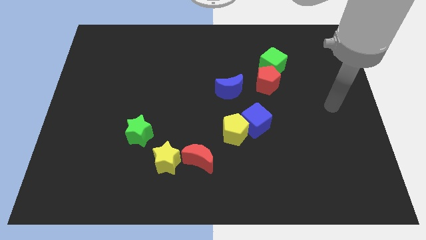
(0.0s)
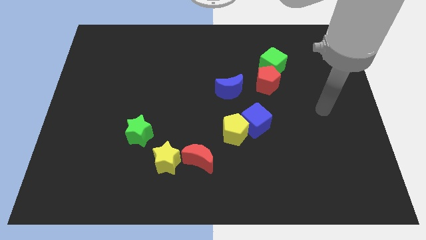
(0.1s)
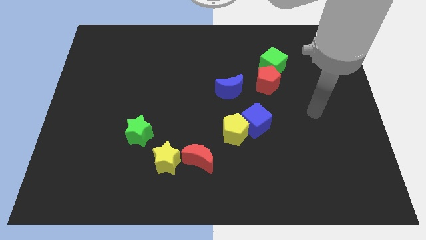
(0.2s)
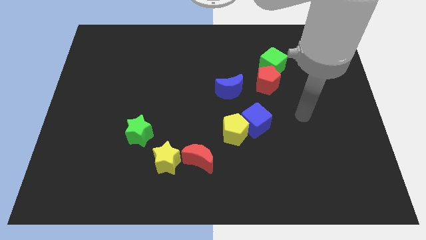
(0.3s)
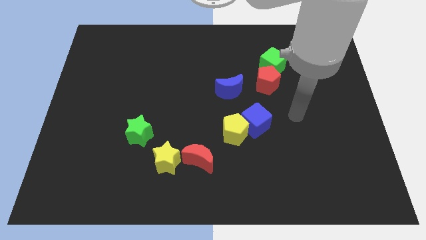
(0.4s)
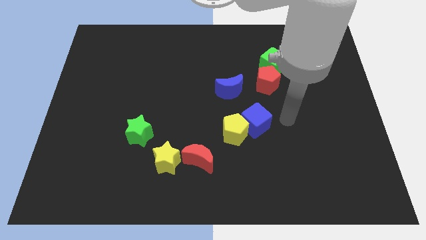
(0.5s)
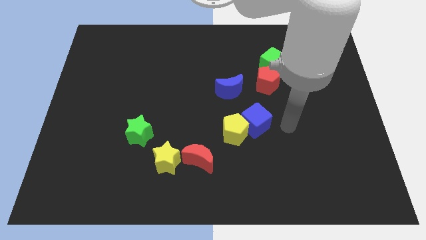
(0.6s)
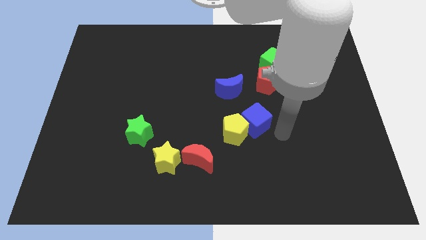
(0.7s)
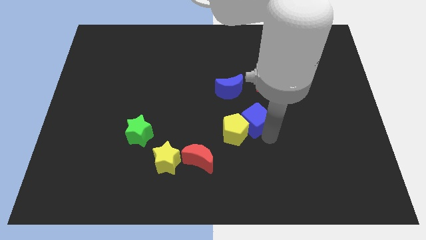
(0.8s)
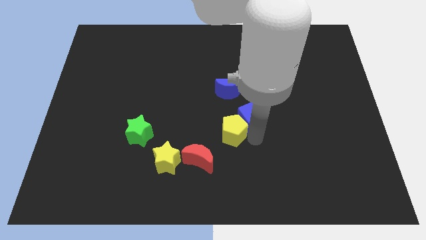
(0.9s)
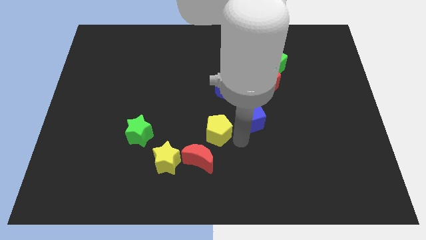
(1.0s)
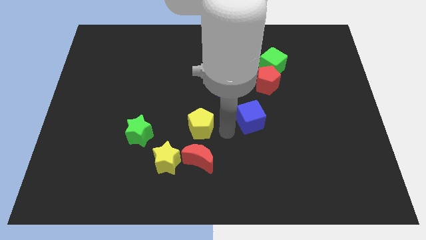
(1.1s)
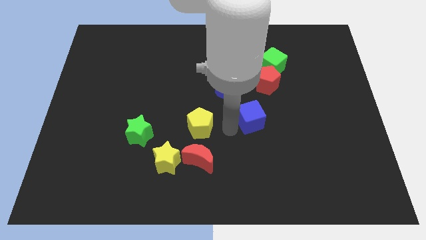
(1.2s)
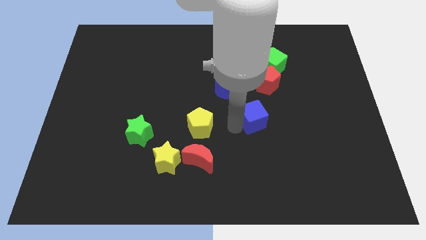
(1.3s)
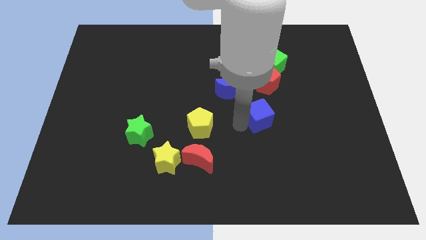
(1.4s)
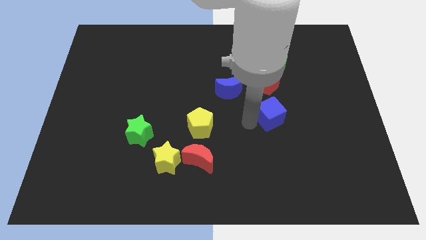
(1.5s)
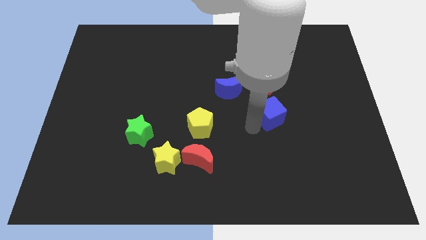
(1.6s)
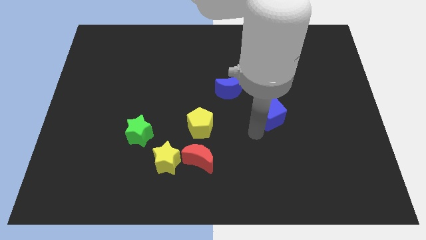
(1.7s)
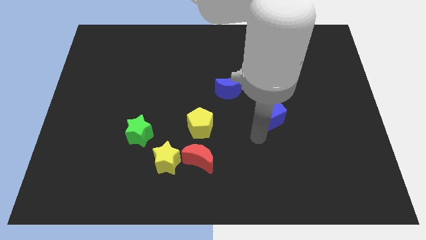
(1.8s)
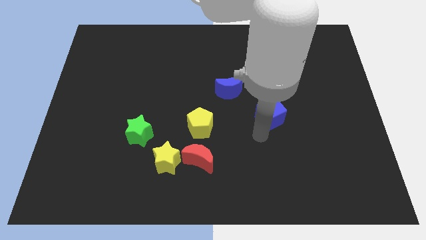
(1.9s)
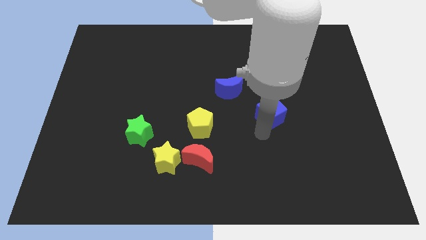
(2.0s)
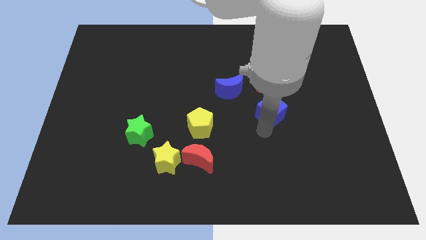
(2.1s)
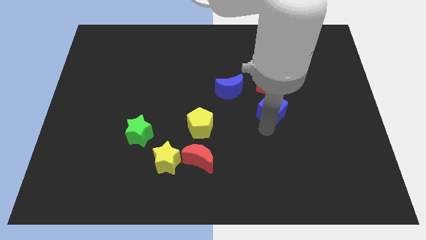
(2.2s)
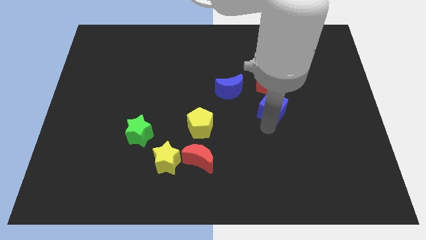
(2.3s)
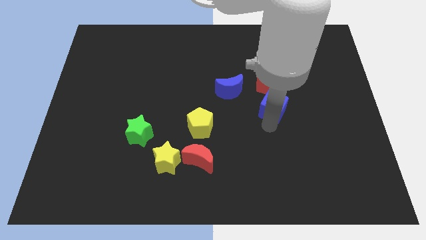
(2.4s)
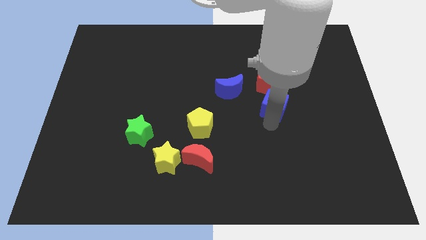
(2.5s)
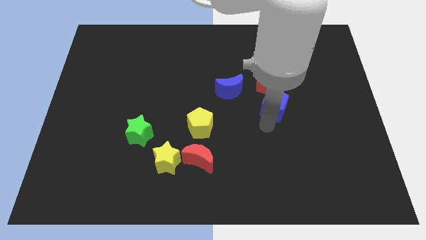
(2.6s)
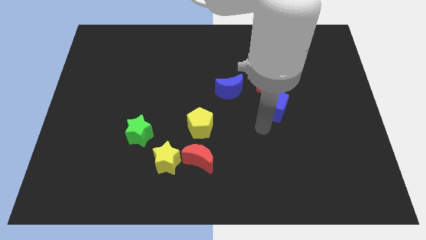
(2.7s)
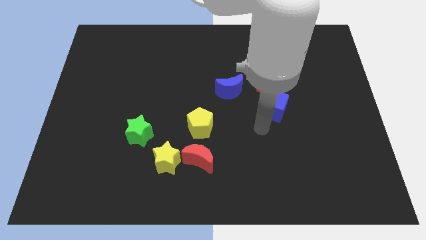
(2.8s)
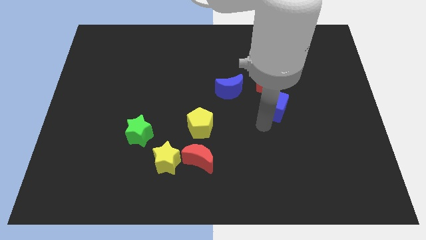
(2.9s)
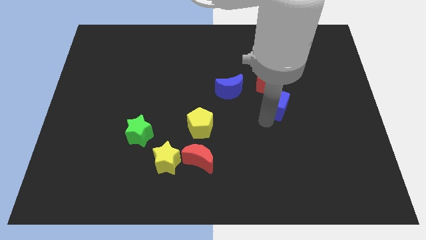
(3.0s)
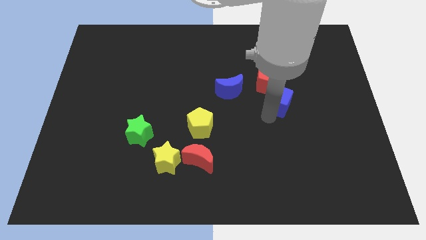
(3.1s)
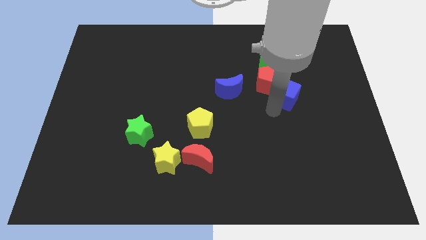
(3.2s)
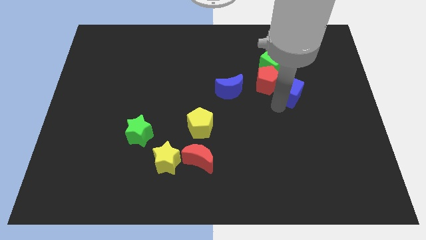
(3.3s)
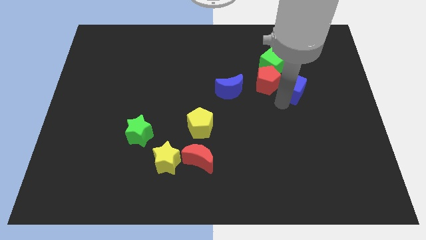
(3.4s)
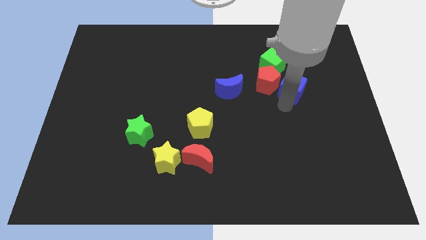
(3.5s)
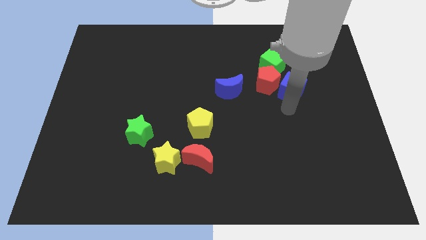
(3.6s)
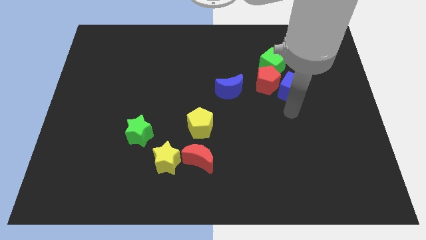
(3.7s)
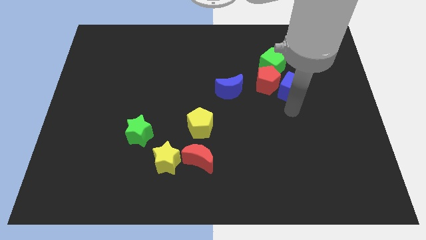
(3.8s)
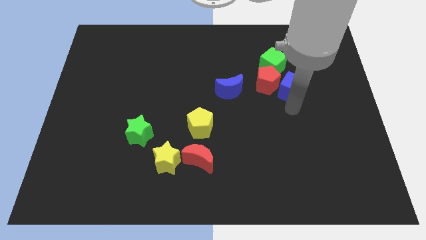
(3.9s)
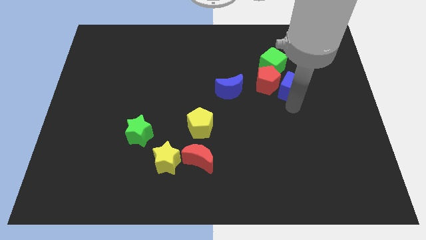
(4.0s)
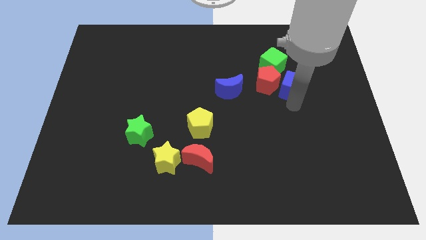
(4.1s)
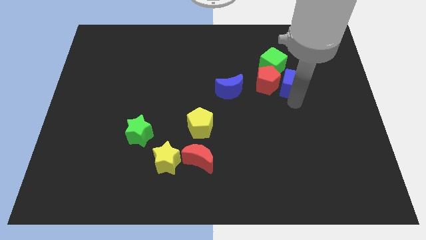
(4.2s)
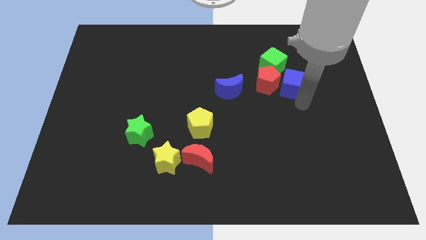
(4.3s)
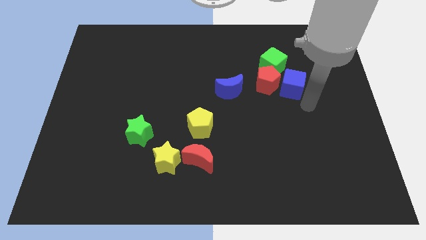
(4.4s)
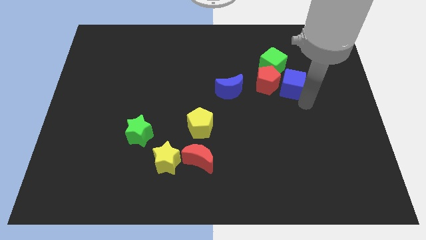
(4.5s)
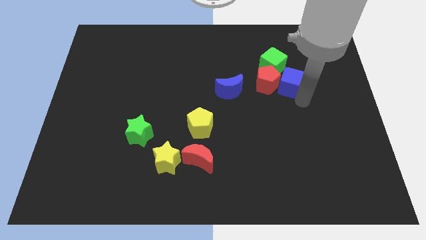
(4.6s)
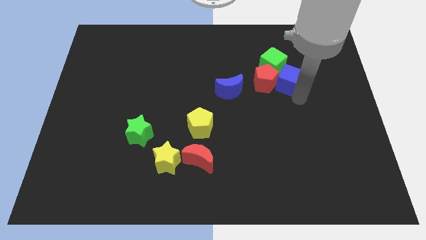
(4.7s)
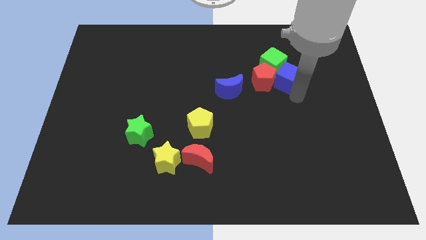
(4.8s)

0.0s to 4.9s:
move the blue cube next to the green cube

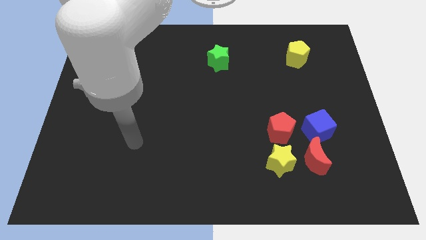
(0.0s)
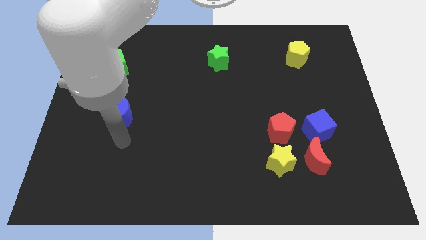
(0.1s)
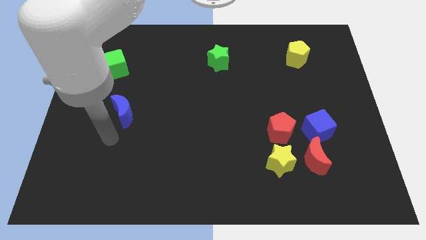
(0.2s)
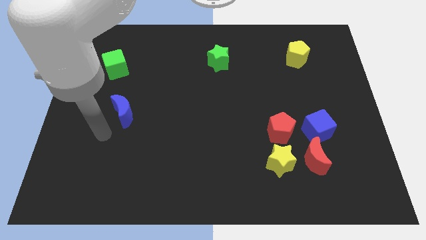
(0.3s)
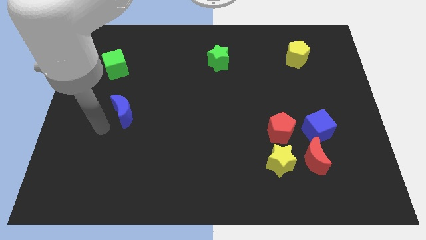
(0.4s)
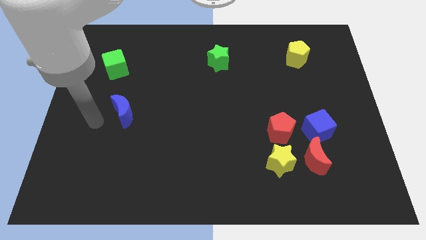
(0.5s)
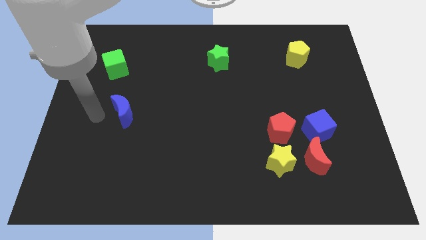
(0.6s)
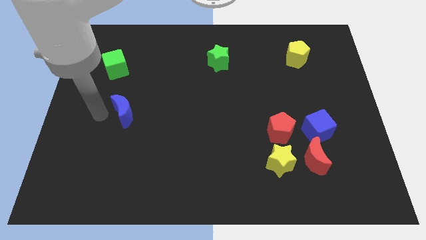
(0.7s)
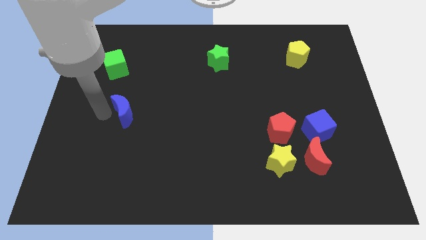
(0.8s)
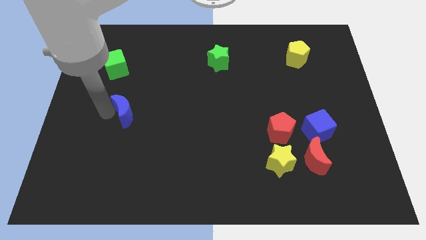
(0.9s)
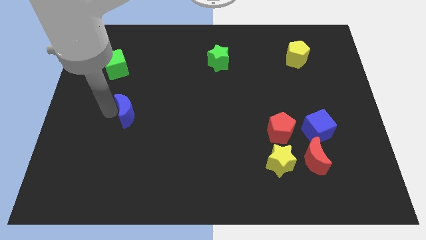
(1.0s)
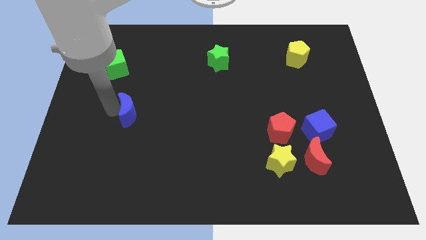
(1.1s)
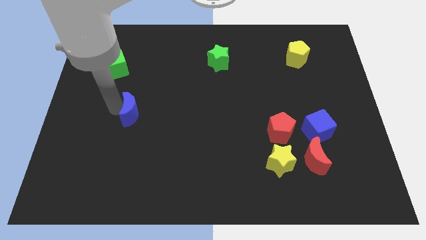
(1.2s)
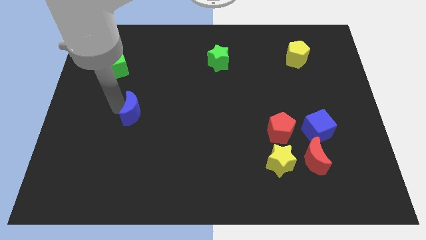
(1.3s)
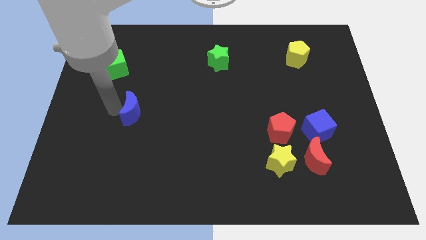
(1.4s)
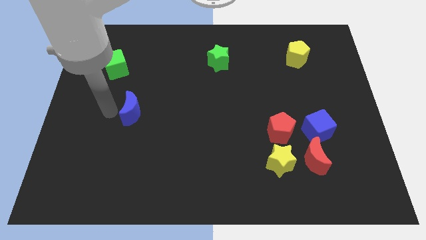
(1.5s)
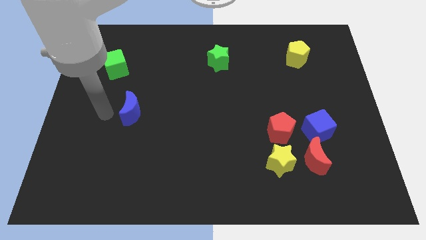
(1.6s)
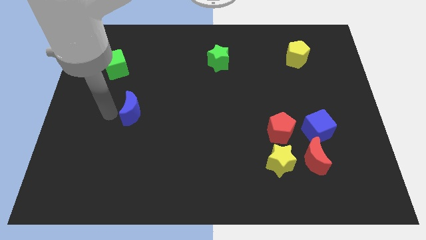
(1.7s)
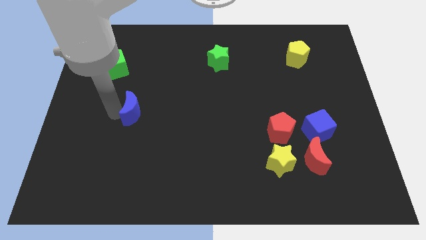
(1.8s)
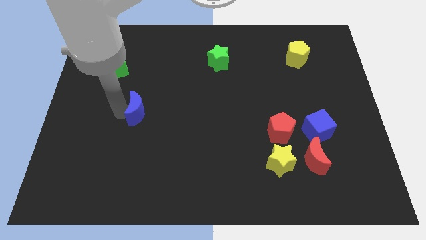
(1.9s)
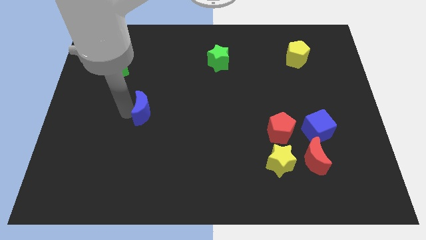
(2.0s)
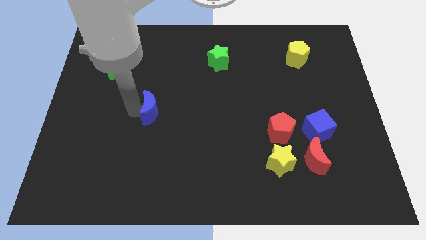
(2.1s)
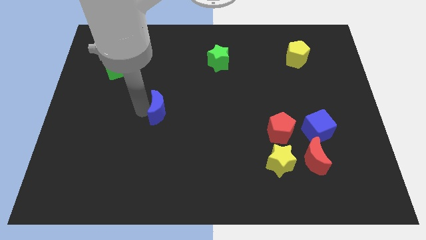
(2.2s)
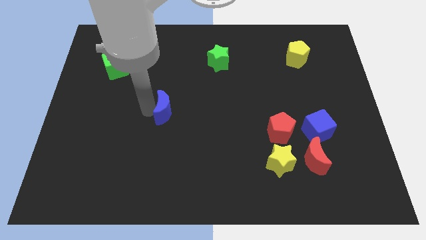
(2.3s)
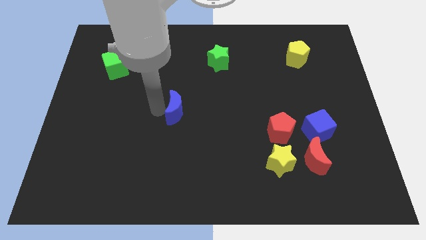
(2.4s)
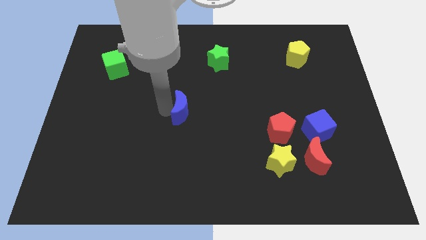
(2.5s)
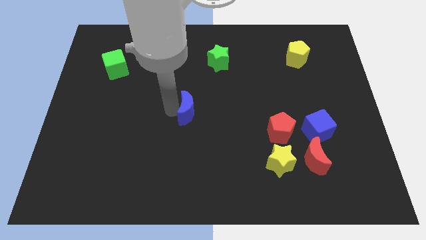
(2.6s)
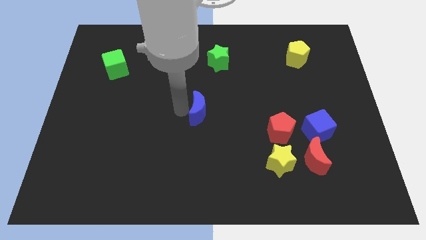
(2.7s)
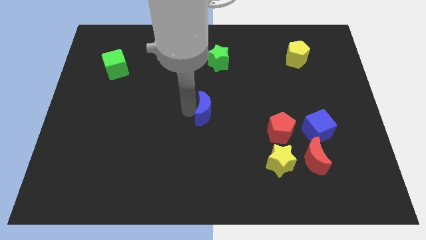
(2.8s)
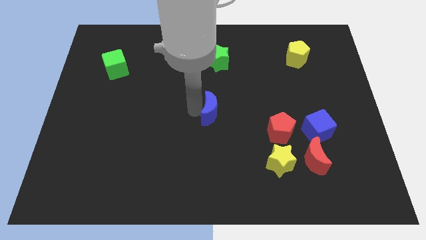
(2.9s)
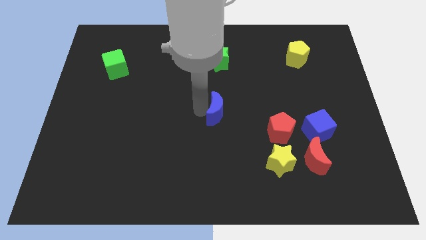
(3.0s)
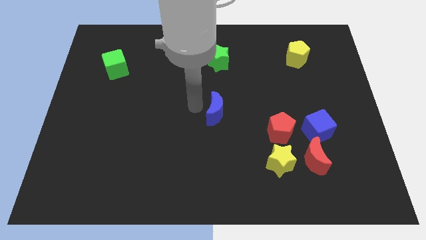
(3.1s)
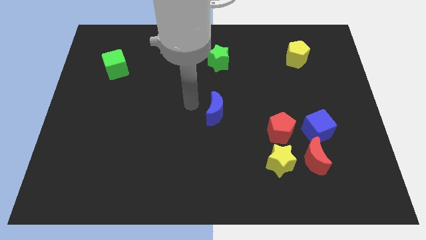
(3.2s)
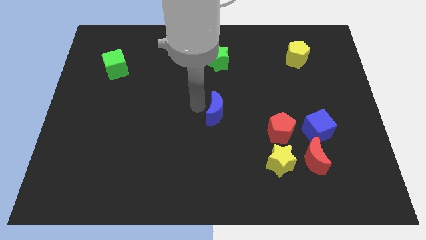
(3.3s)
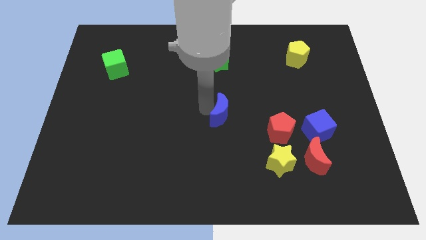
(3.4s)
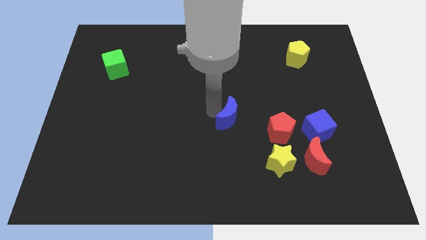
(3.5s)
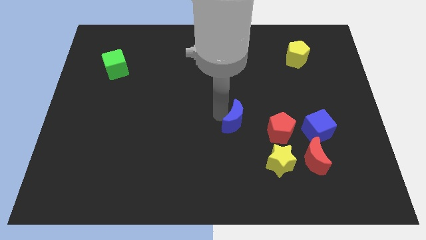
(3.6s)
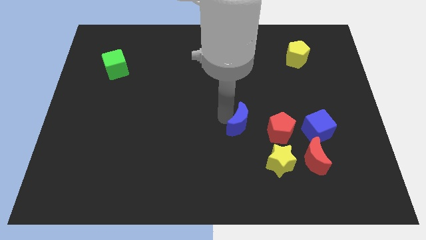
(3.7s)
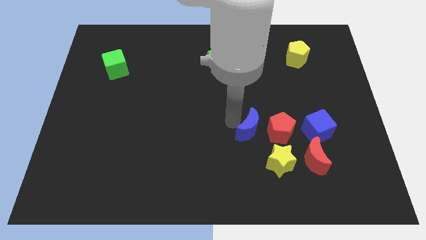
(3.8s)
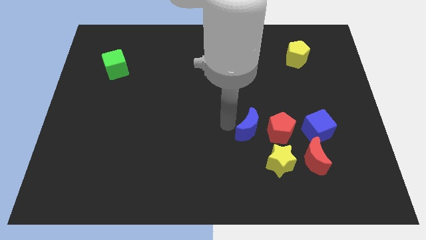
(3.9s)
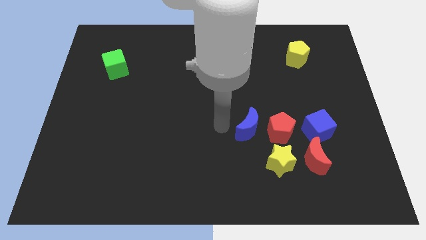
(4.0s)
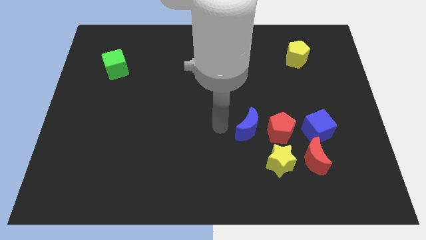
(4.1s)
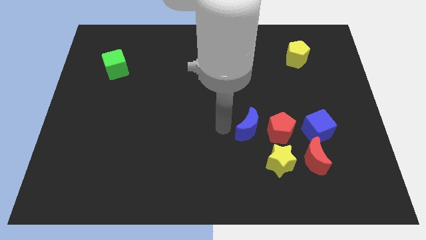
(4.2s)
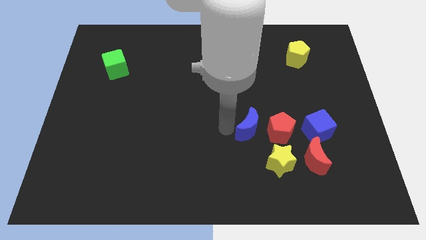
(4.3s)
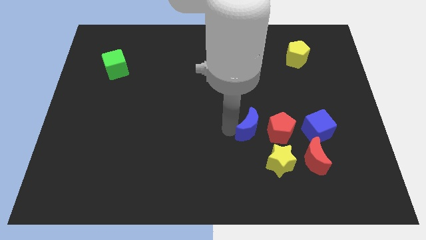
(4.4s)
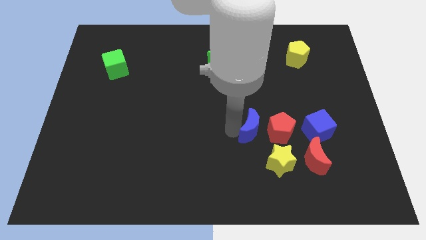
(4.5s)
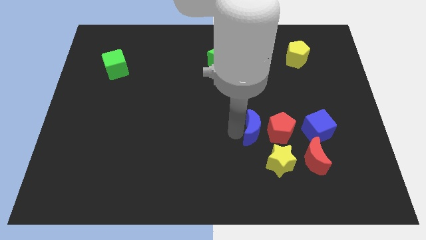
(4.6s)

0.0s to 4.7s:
push the blue moon to the red pentagon
